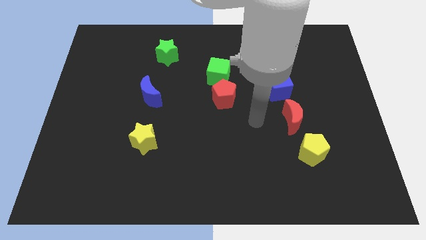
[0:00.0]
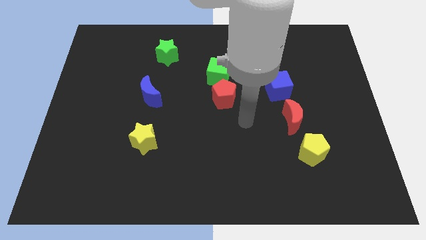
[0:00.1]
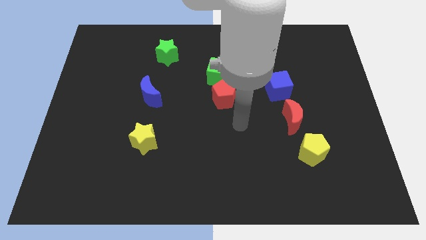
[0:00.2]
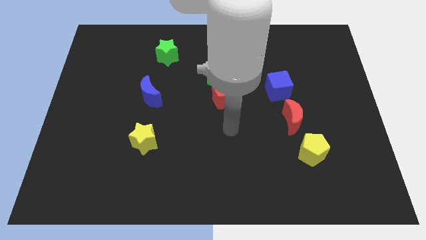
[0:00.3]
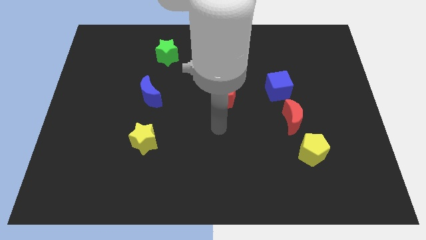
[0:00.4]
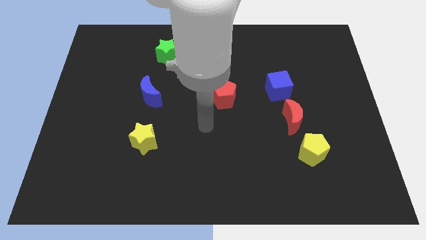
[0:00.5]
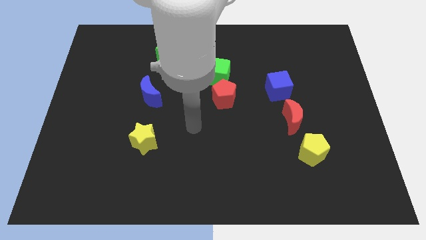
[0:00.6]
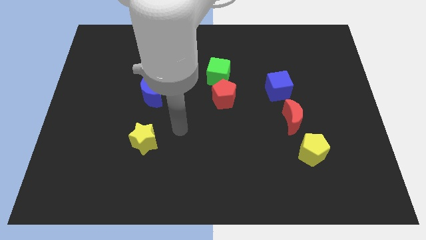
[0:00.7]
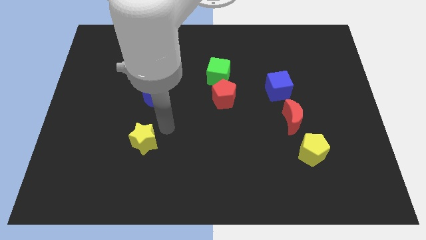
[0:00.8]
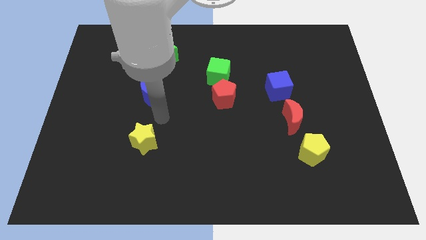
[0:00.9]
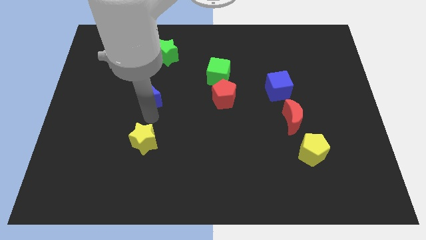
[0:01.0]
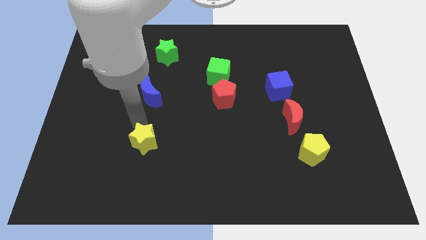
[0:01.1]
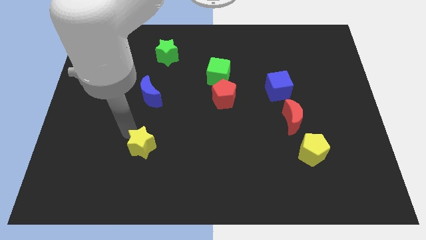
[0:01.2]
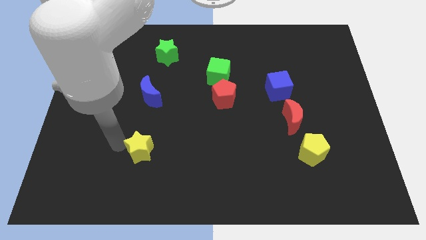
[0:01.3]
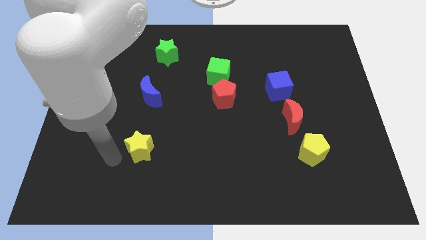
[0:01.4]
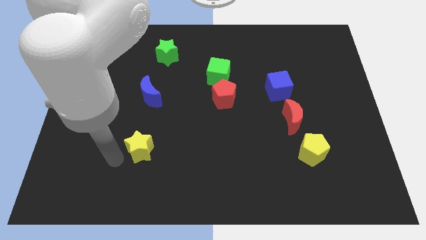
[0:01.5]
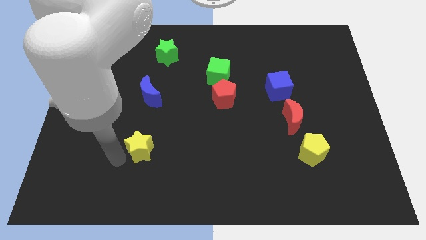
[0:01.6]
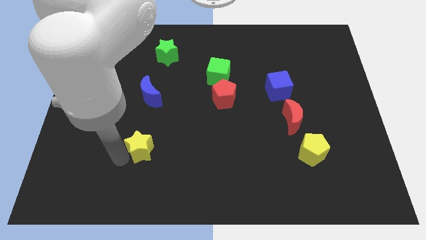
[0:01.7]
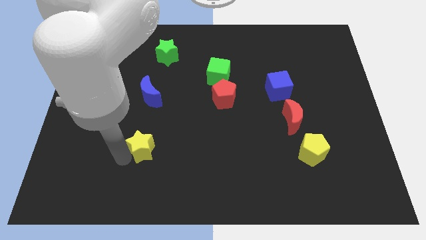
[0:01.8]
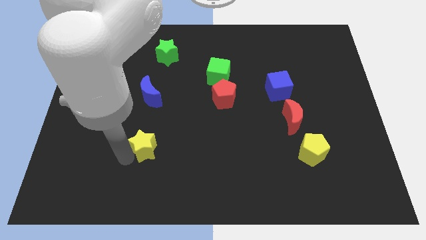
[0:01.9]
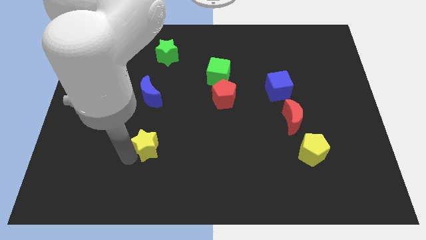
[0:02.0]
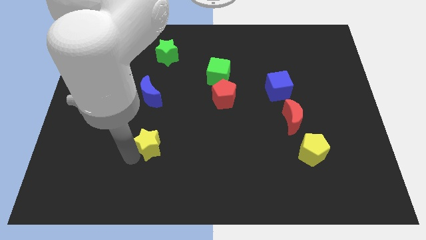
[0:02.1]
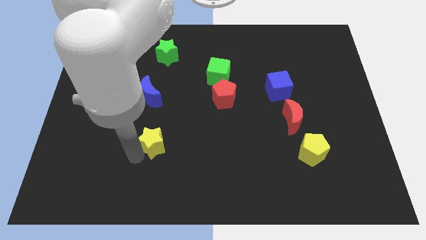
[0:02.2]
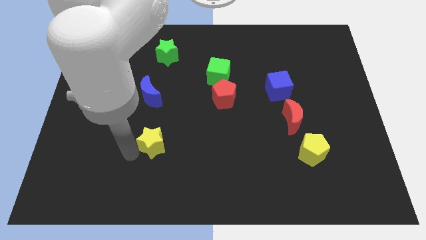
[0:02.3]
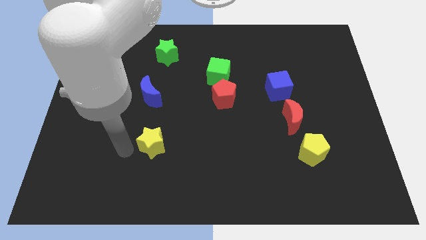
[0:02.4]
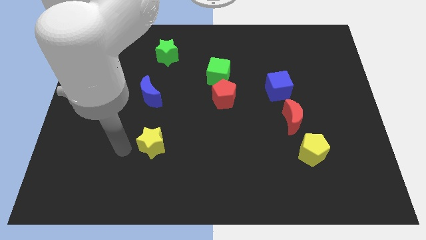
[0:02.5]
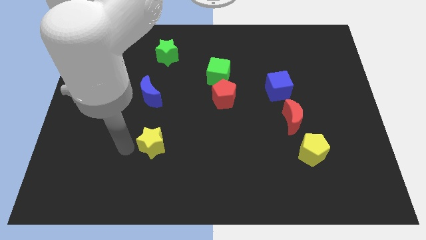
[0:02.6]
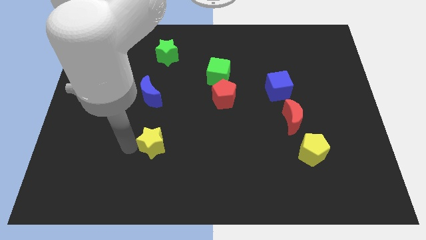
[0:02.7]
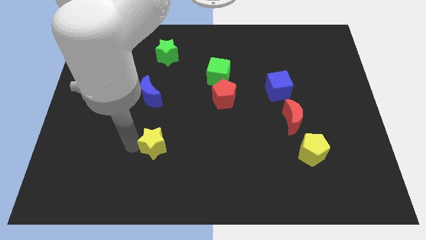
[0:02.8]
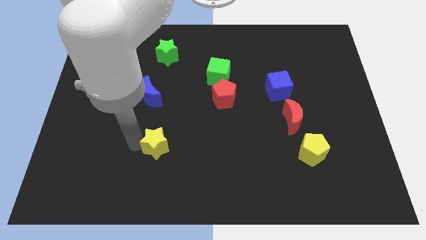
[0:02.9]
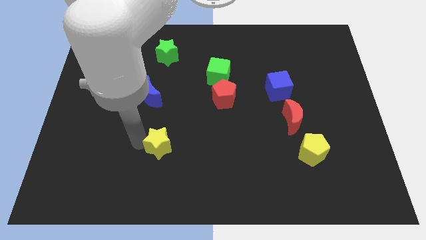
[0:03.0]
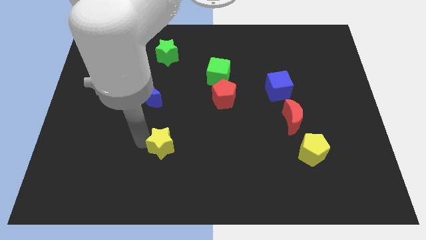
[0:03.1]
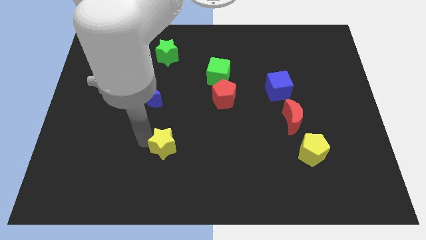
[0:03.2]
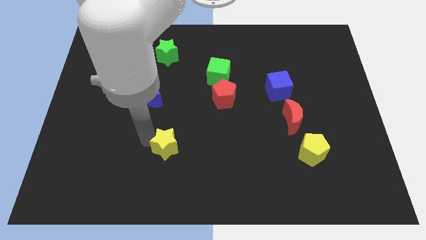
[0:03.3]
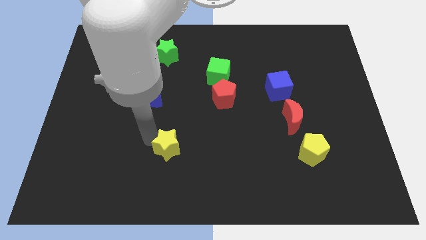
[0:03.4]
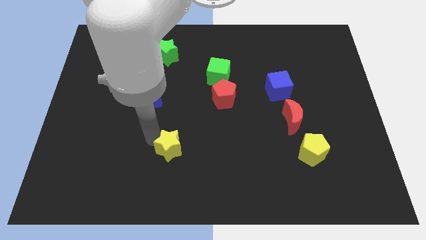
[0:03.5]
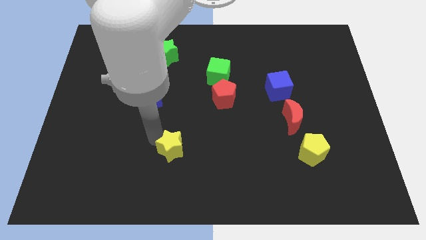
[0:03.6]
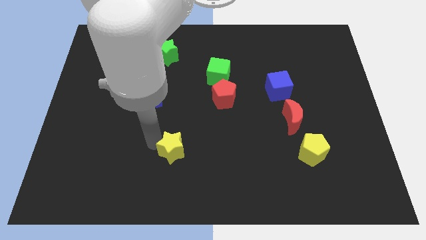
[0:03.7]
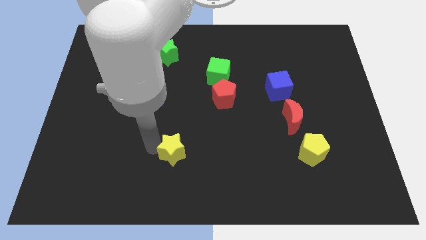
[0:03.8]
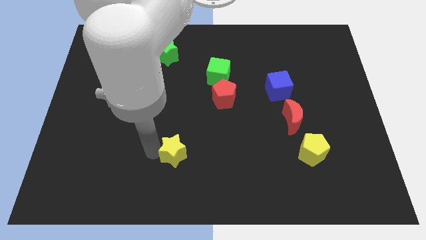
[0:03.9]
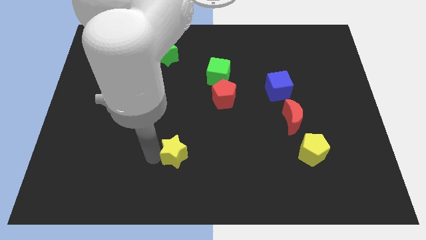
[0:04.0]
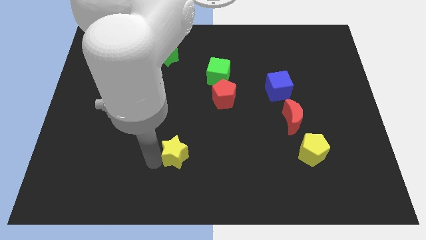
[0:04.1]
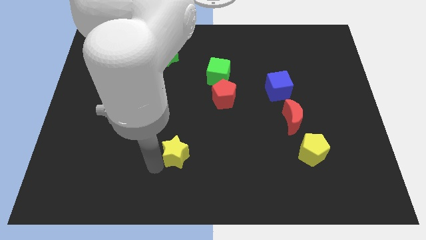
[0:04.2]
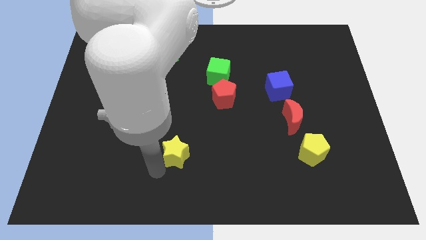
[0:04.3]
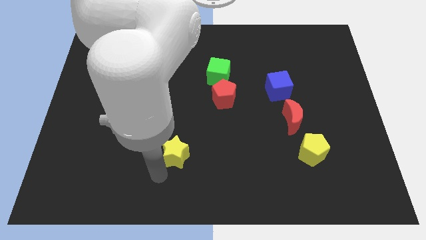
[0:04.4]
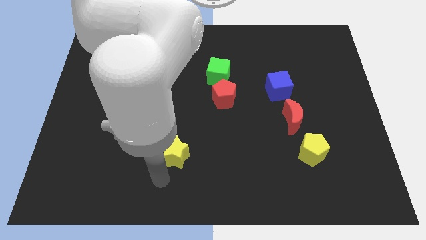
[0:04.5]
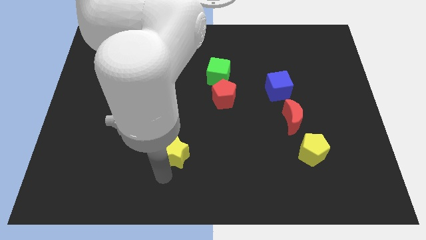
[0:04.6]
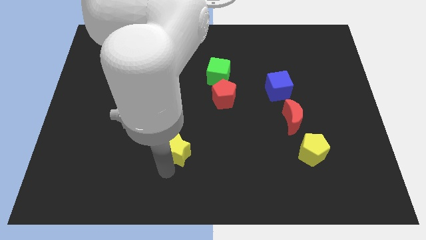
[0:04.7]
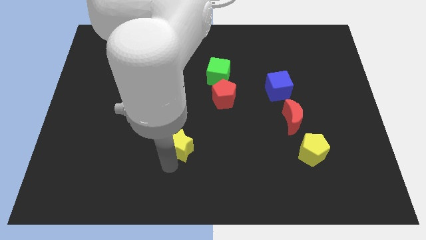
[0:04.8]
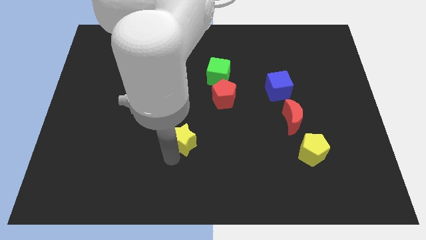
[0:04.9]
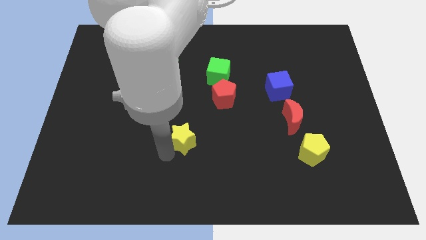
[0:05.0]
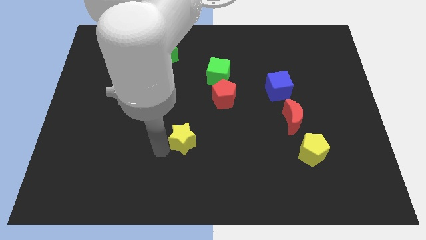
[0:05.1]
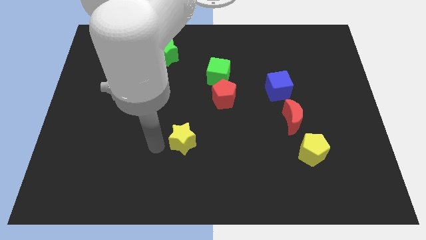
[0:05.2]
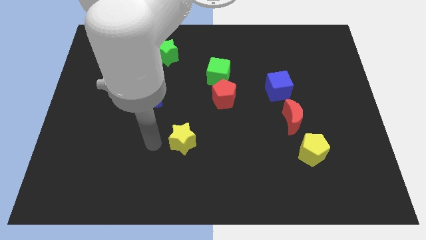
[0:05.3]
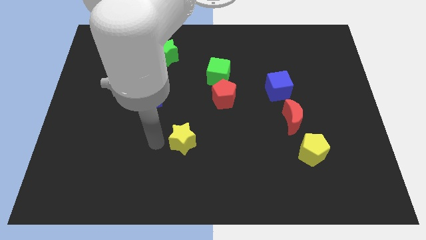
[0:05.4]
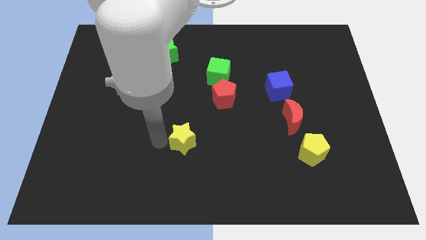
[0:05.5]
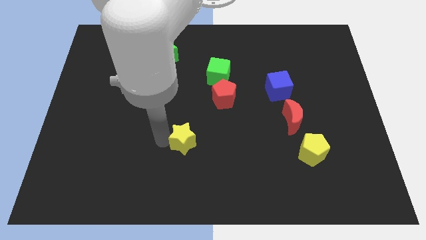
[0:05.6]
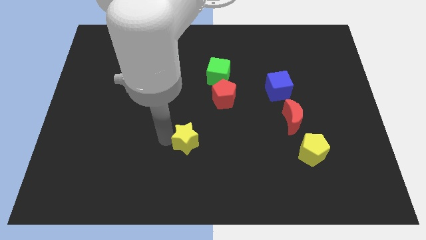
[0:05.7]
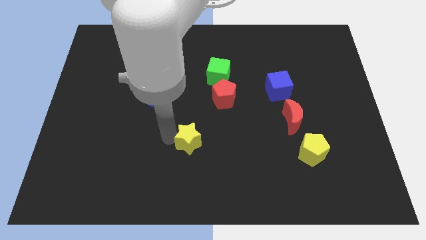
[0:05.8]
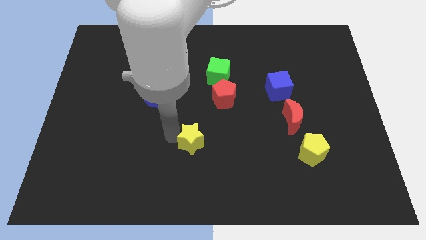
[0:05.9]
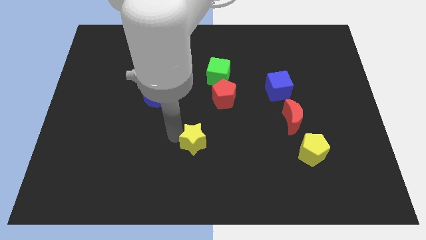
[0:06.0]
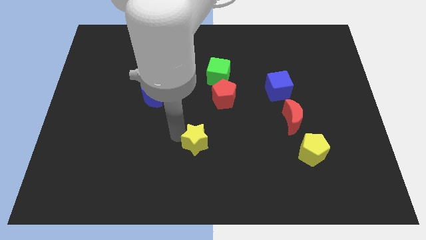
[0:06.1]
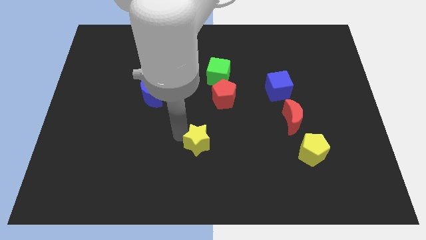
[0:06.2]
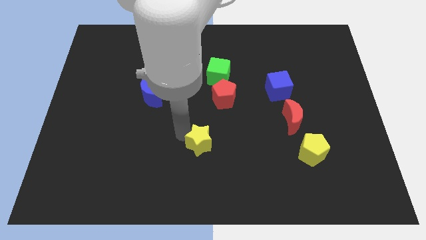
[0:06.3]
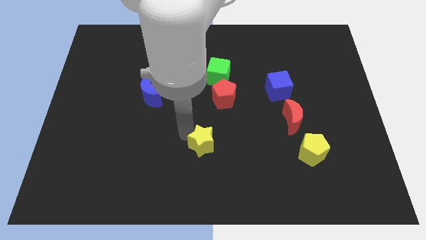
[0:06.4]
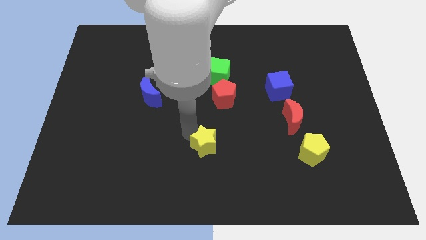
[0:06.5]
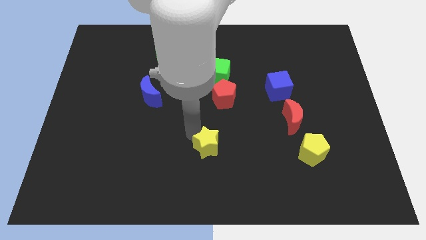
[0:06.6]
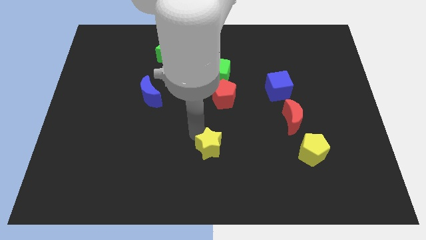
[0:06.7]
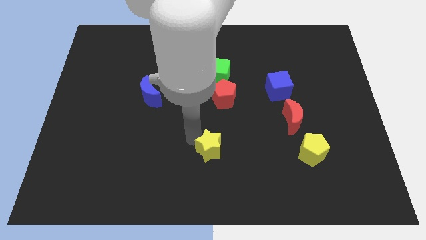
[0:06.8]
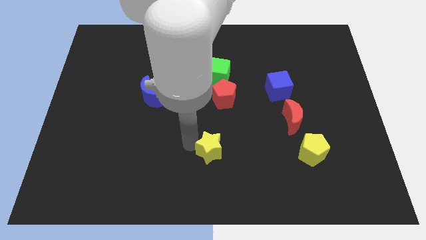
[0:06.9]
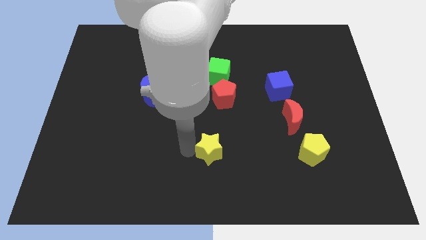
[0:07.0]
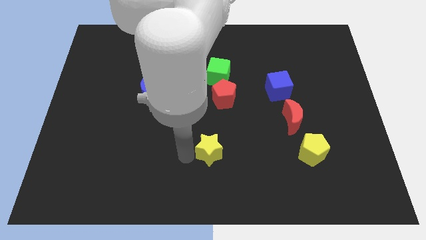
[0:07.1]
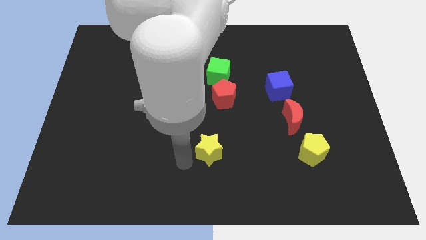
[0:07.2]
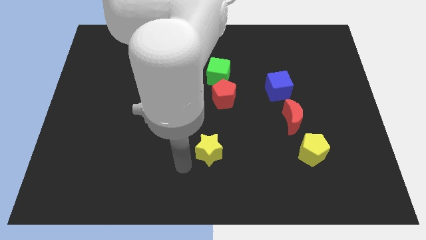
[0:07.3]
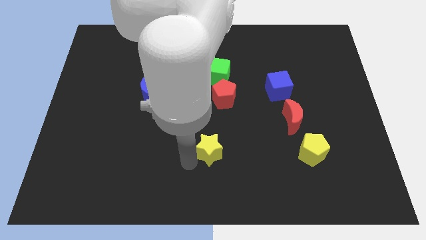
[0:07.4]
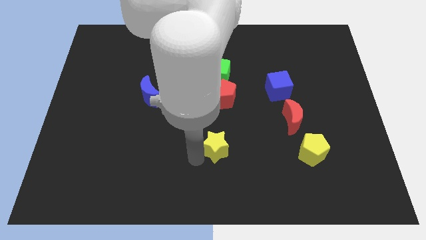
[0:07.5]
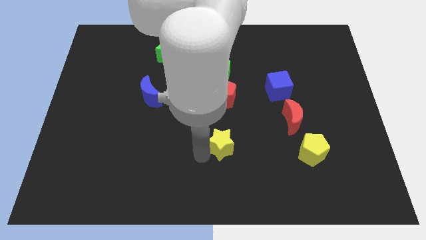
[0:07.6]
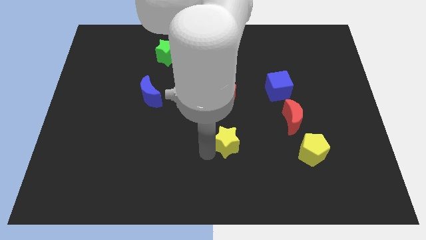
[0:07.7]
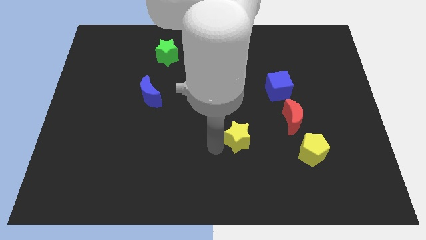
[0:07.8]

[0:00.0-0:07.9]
slide the yellow star to the right
